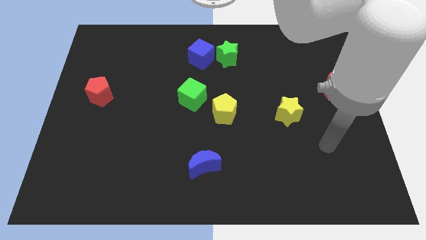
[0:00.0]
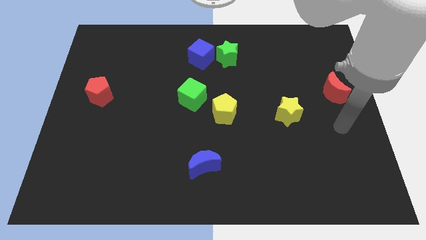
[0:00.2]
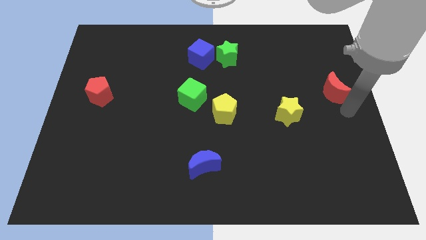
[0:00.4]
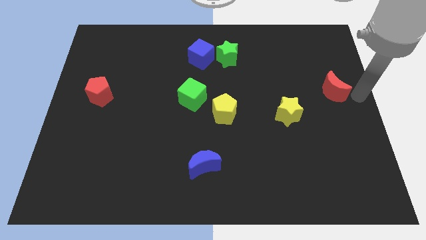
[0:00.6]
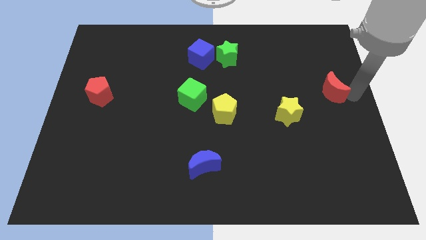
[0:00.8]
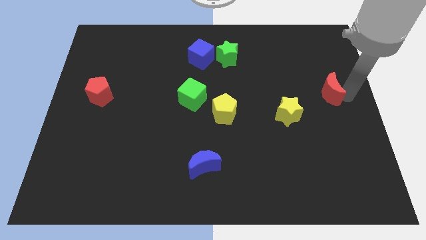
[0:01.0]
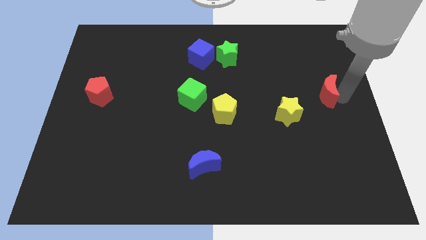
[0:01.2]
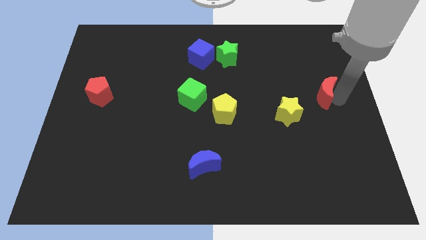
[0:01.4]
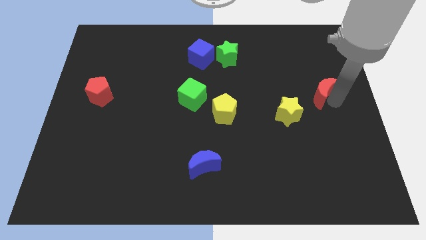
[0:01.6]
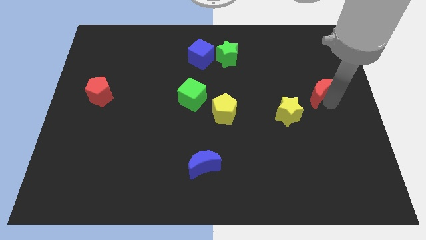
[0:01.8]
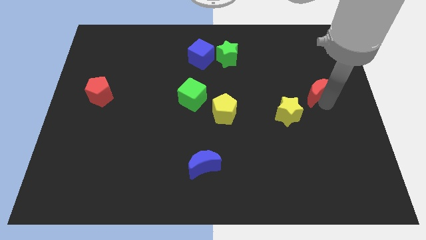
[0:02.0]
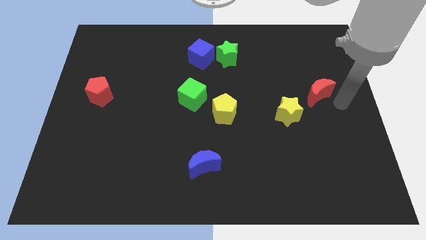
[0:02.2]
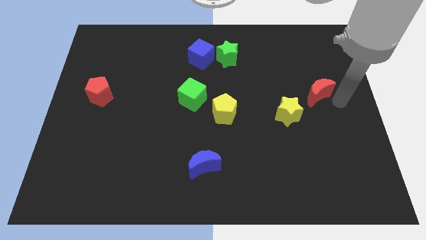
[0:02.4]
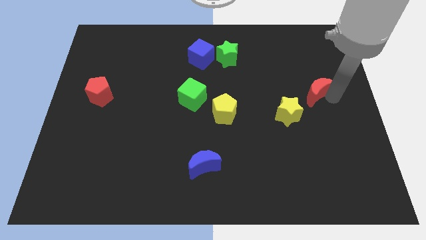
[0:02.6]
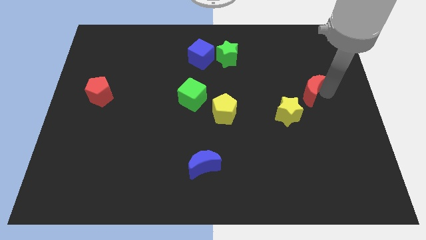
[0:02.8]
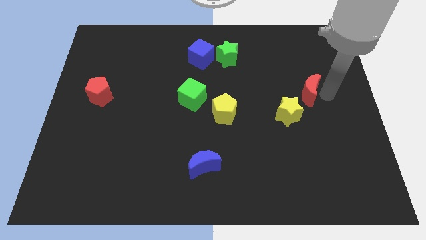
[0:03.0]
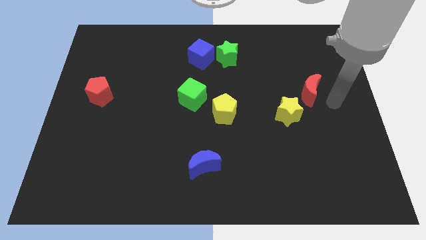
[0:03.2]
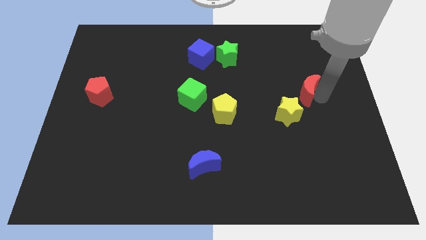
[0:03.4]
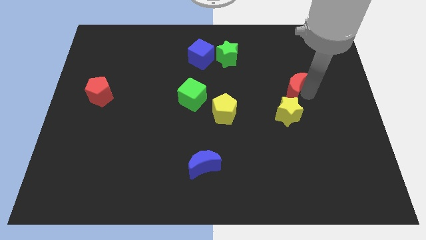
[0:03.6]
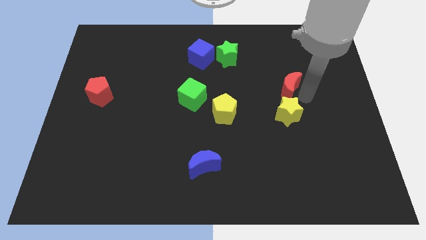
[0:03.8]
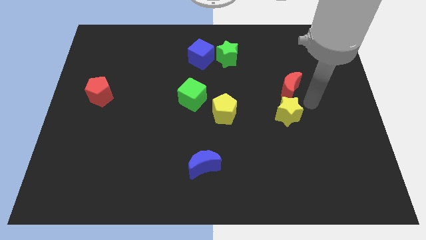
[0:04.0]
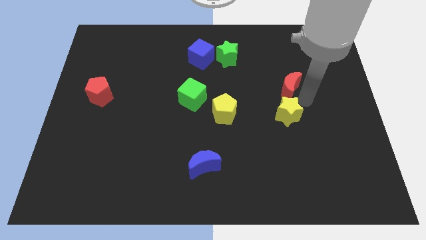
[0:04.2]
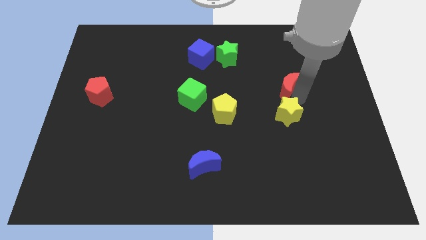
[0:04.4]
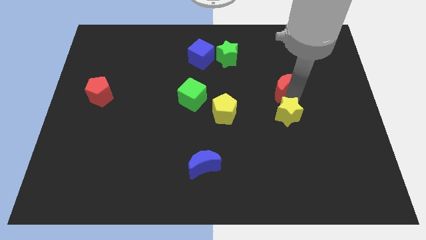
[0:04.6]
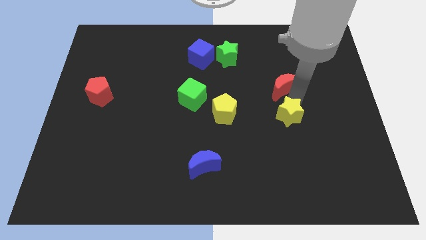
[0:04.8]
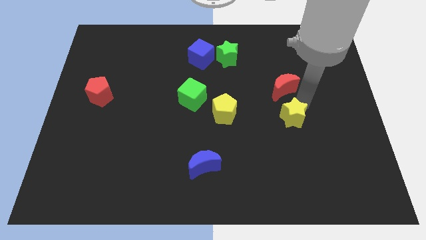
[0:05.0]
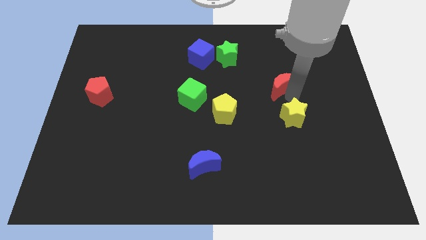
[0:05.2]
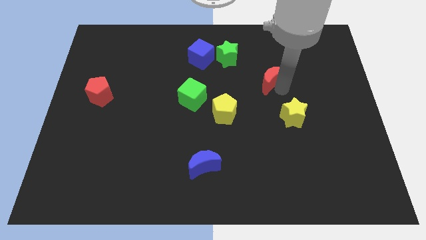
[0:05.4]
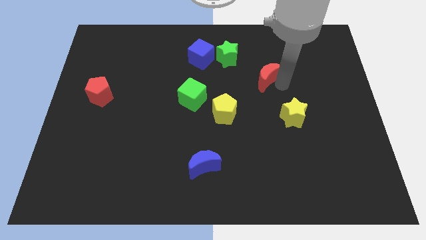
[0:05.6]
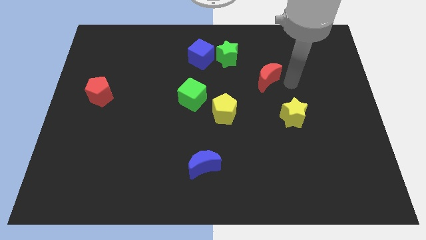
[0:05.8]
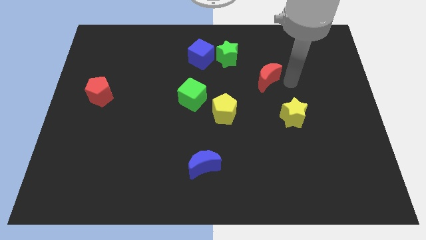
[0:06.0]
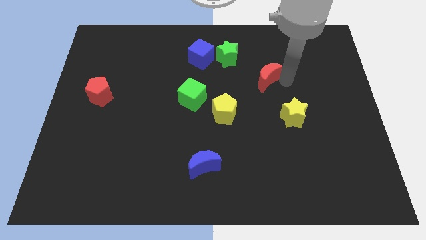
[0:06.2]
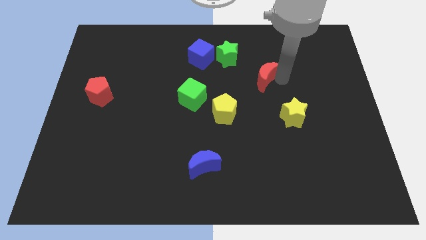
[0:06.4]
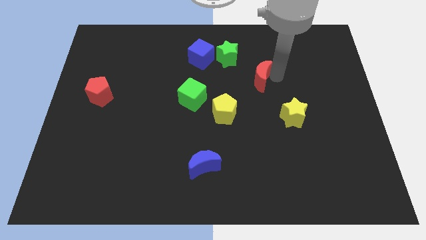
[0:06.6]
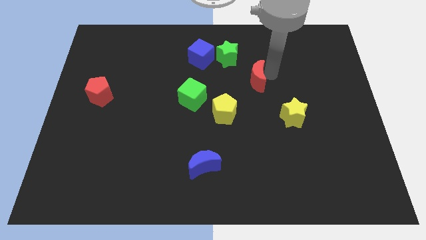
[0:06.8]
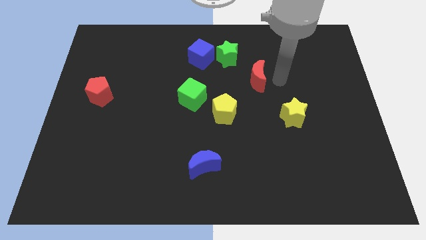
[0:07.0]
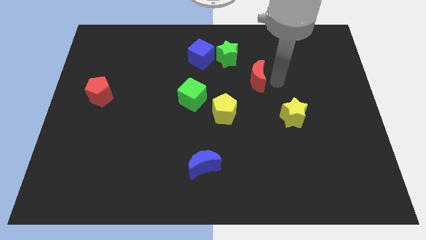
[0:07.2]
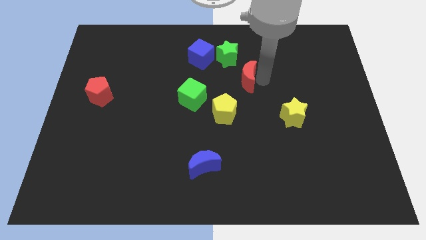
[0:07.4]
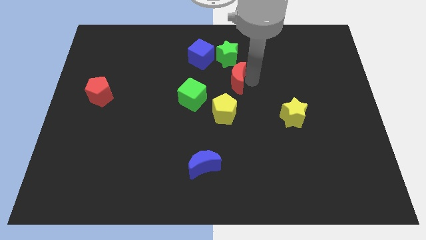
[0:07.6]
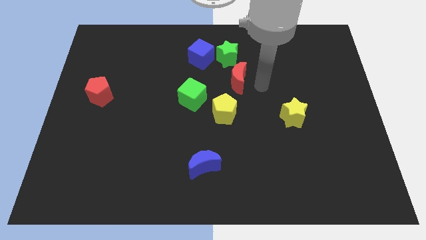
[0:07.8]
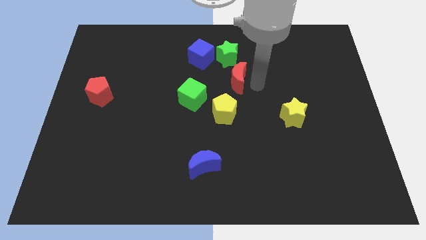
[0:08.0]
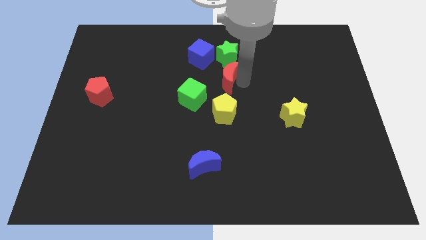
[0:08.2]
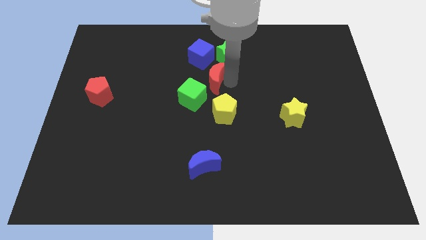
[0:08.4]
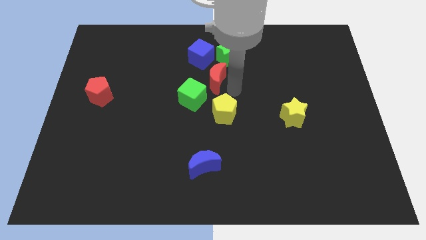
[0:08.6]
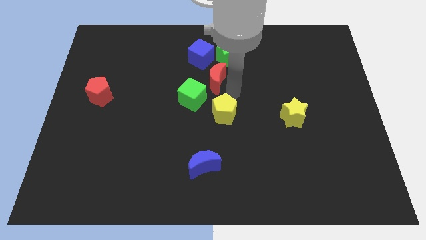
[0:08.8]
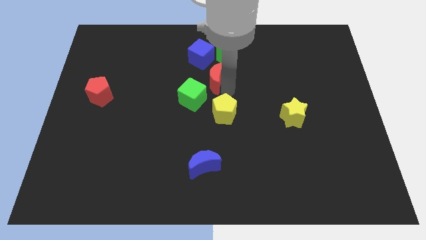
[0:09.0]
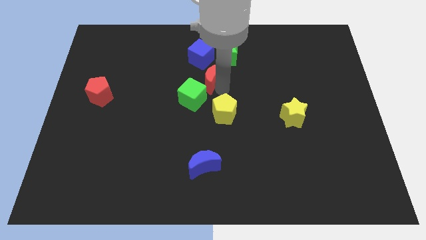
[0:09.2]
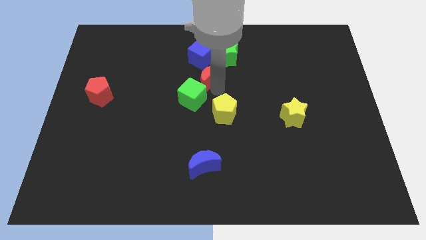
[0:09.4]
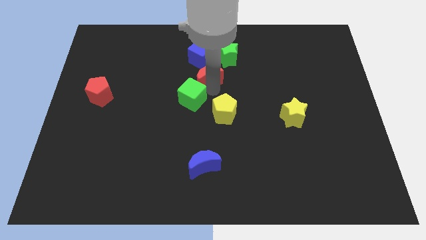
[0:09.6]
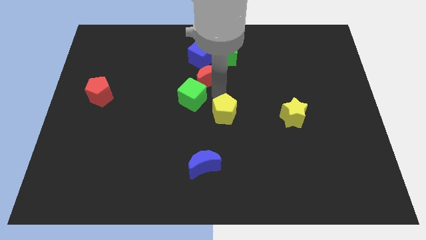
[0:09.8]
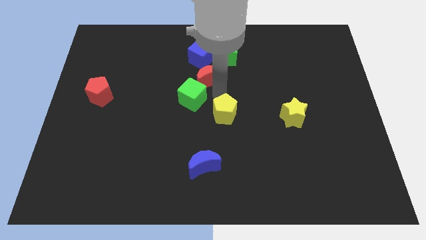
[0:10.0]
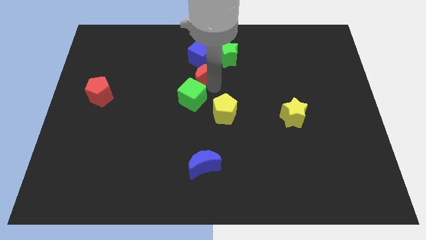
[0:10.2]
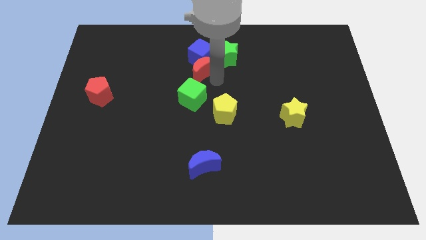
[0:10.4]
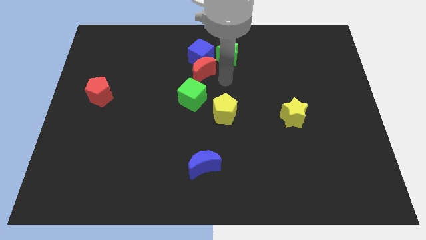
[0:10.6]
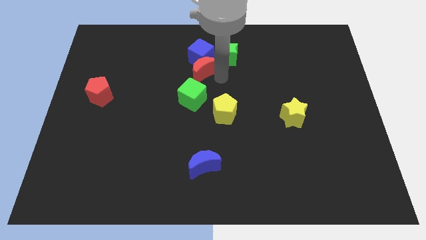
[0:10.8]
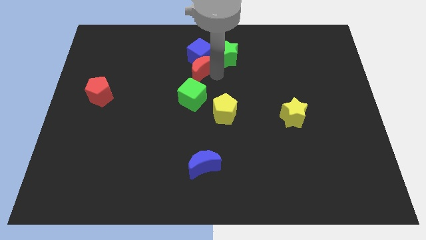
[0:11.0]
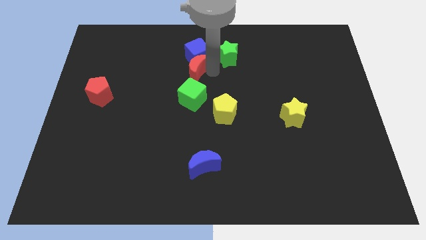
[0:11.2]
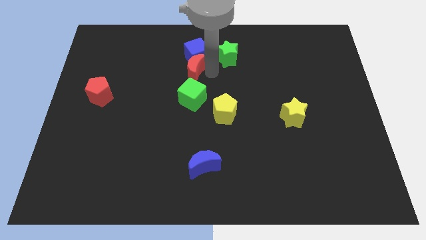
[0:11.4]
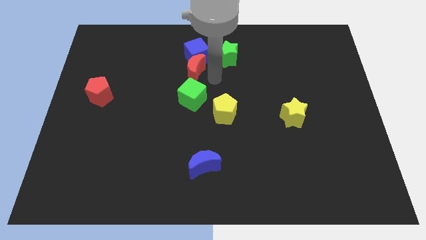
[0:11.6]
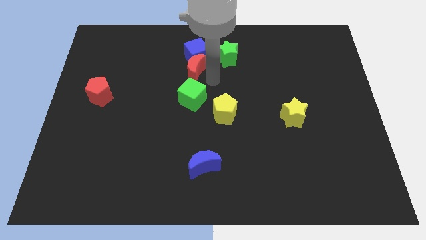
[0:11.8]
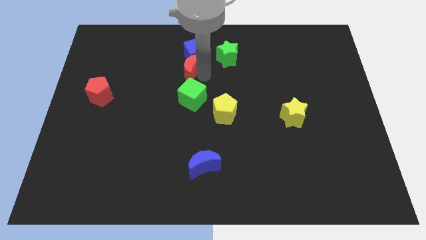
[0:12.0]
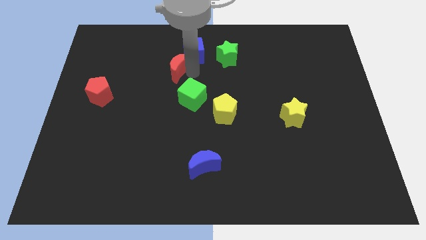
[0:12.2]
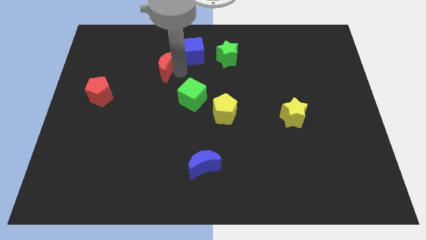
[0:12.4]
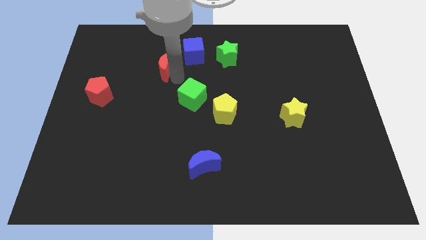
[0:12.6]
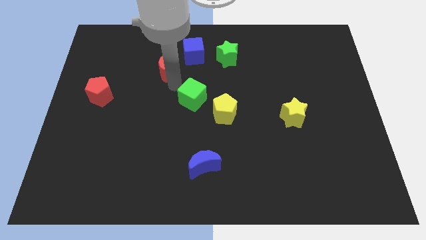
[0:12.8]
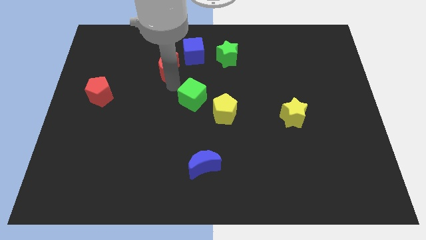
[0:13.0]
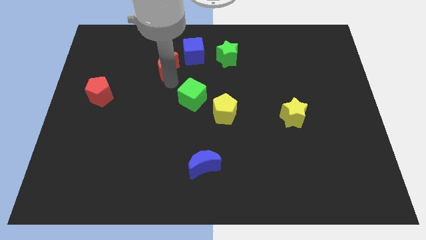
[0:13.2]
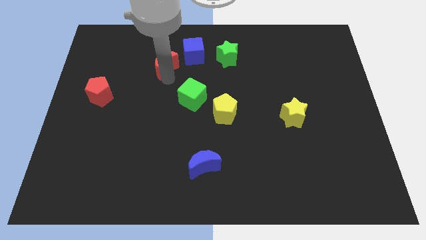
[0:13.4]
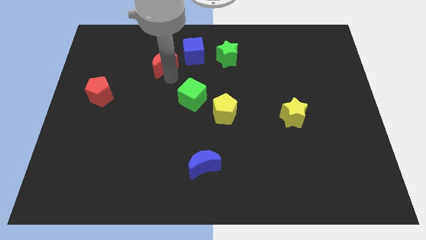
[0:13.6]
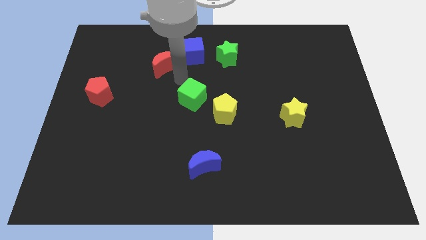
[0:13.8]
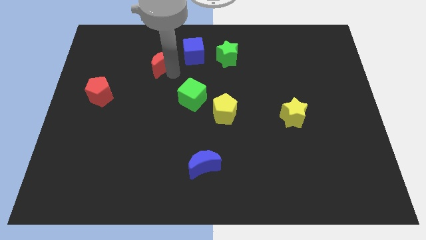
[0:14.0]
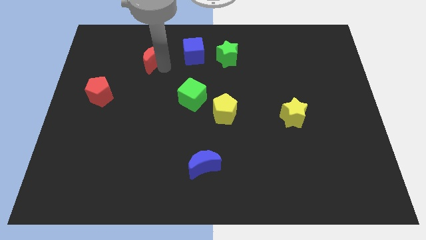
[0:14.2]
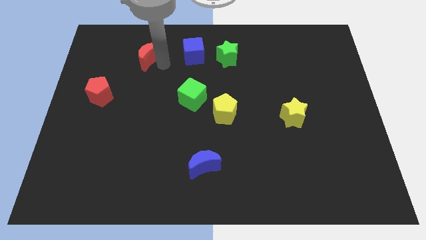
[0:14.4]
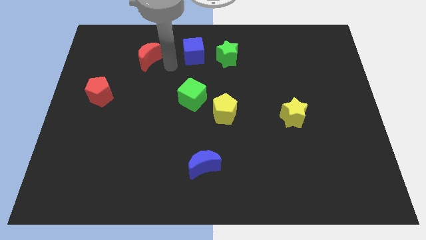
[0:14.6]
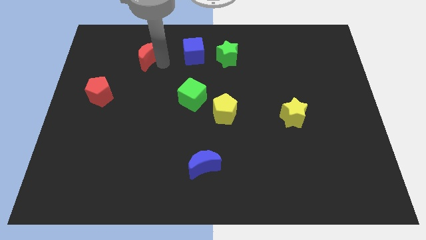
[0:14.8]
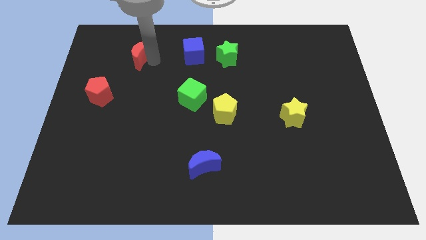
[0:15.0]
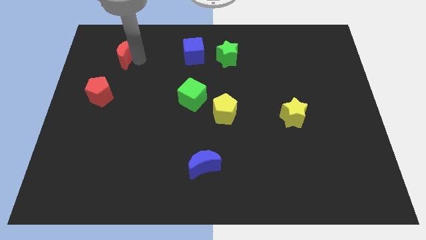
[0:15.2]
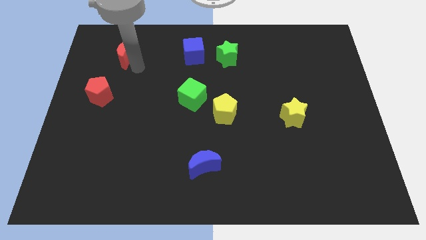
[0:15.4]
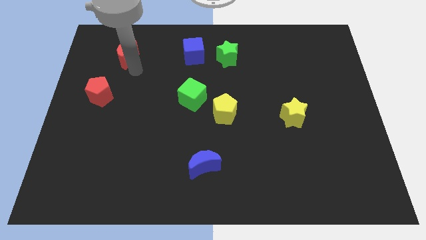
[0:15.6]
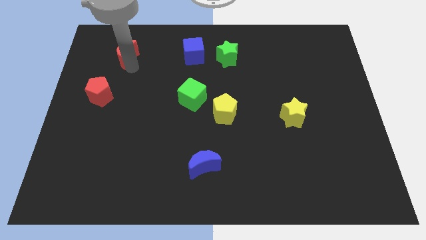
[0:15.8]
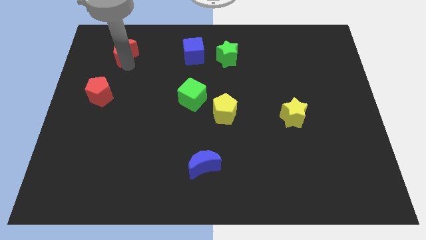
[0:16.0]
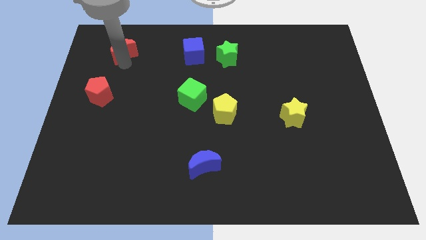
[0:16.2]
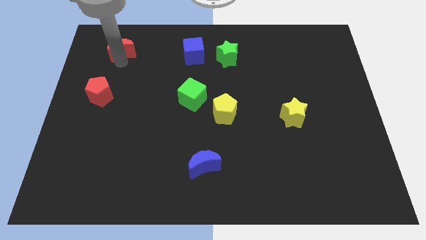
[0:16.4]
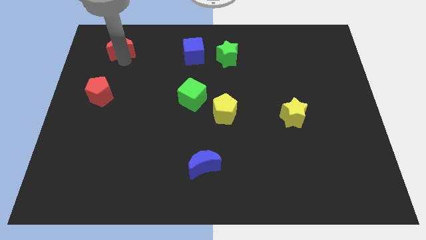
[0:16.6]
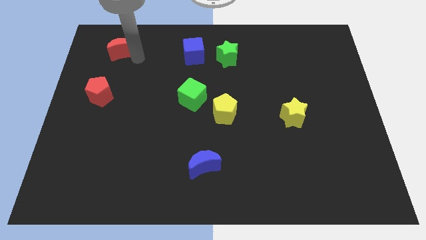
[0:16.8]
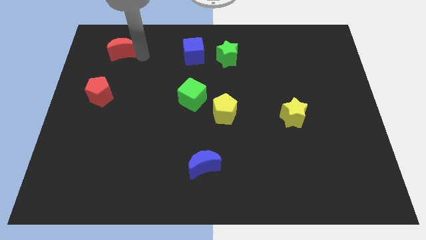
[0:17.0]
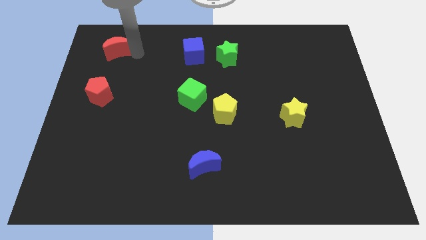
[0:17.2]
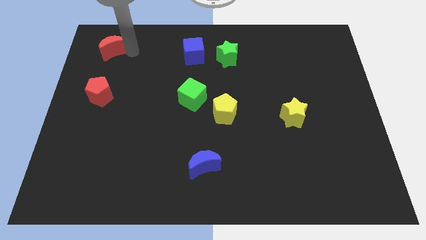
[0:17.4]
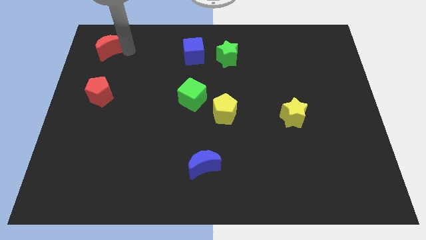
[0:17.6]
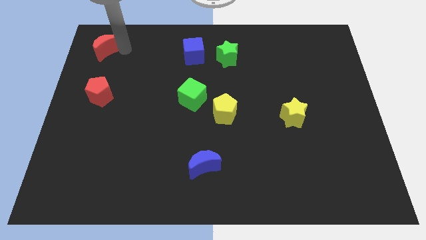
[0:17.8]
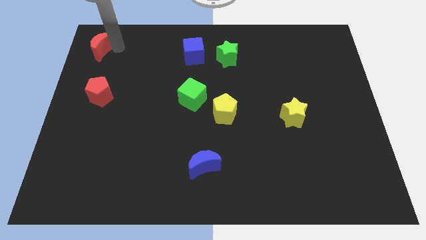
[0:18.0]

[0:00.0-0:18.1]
push the red moon to the top left of the board
